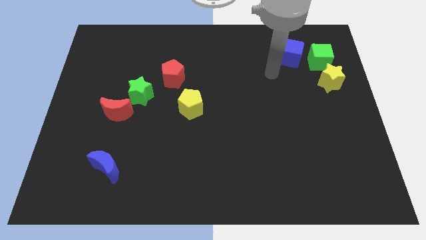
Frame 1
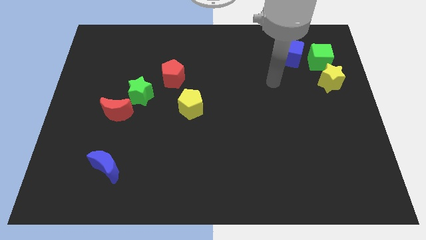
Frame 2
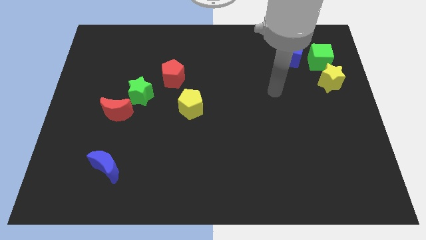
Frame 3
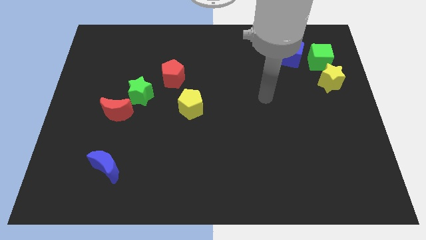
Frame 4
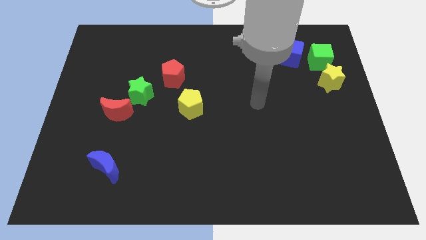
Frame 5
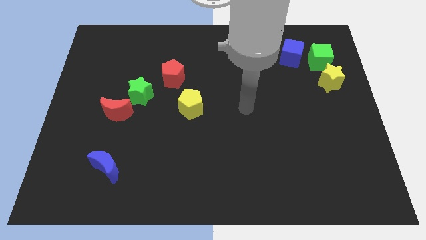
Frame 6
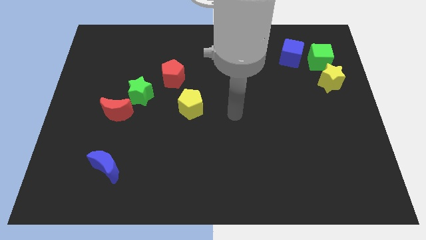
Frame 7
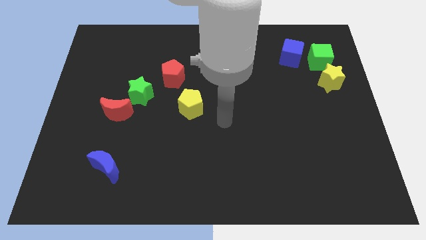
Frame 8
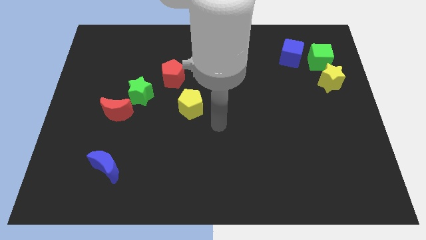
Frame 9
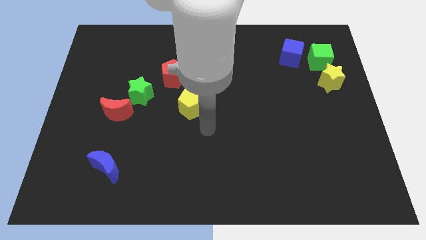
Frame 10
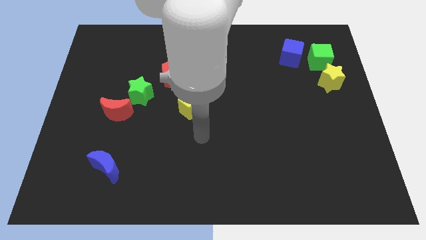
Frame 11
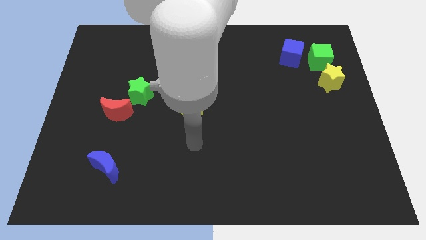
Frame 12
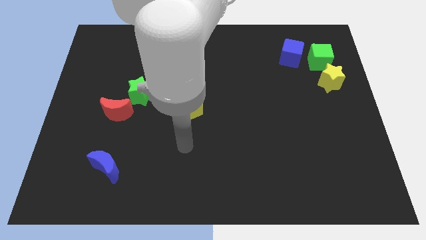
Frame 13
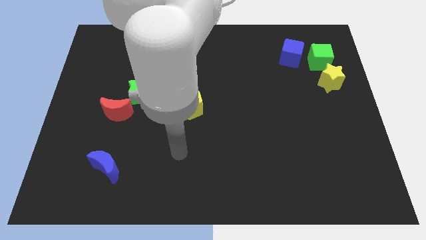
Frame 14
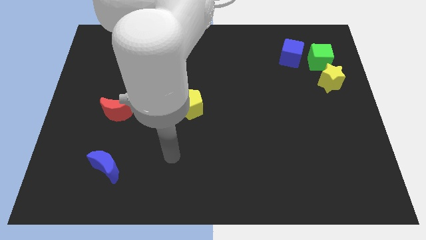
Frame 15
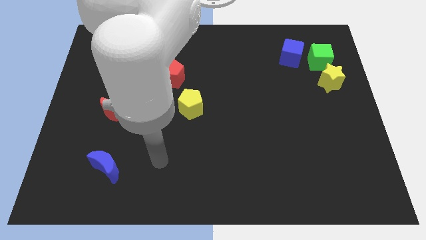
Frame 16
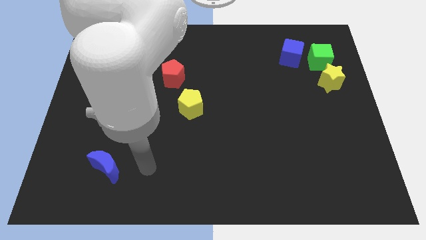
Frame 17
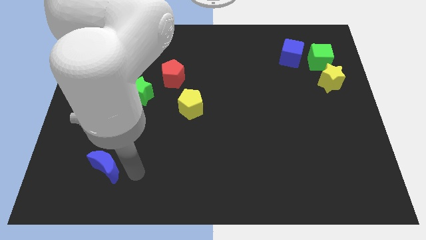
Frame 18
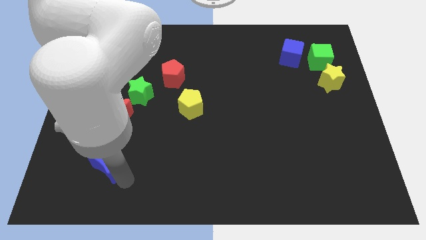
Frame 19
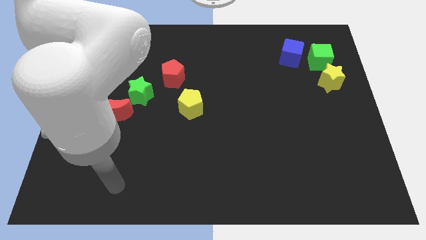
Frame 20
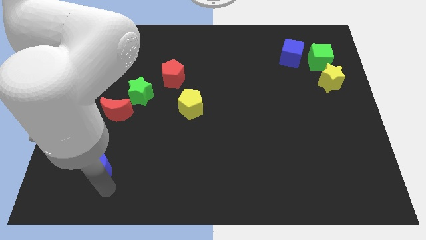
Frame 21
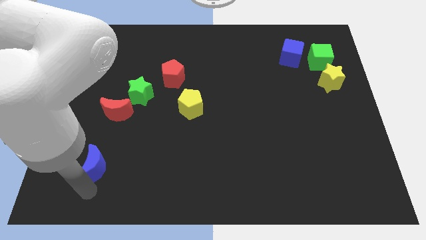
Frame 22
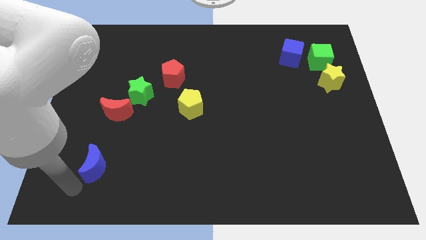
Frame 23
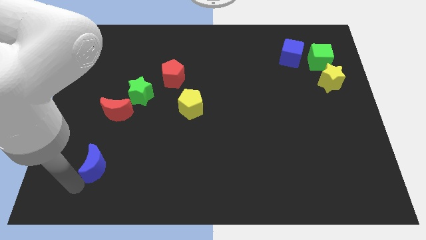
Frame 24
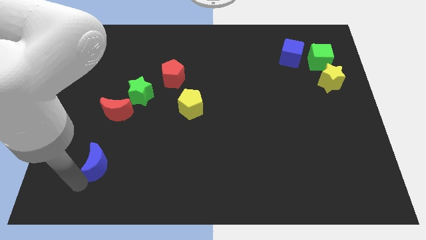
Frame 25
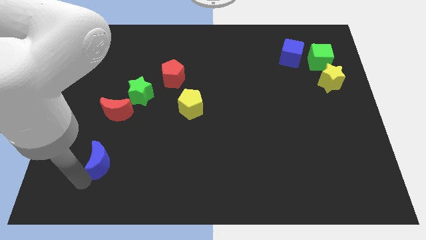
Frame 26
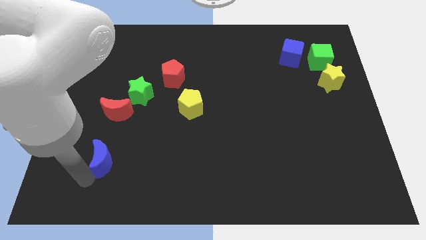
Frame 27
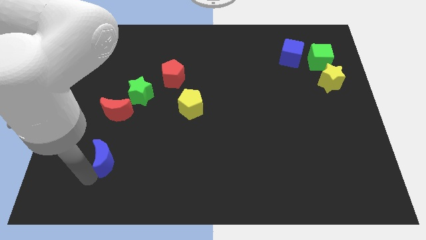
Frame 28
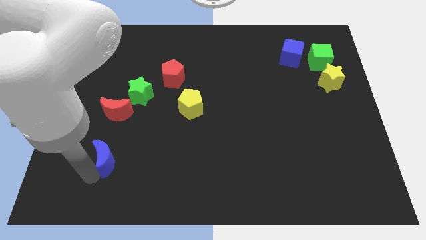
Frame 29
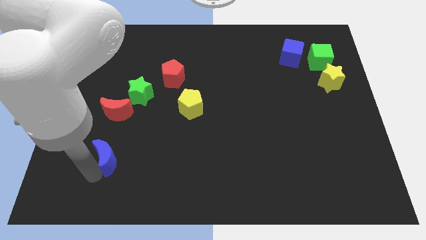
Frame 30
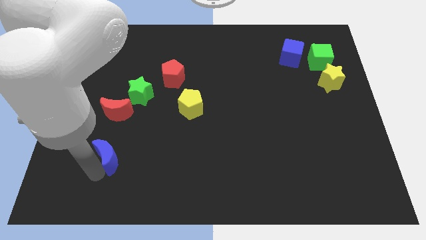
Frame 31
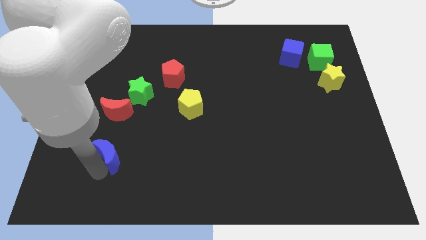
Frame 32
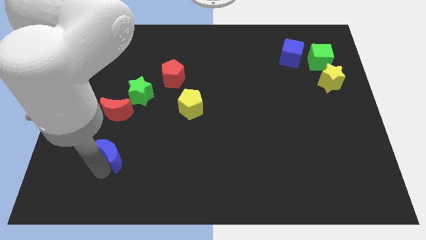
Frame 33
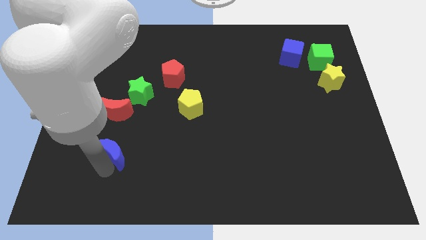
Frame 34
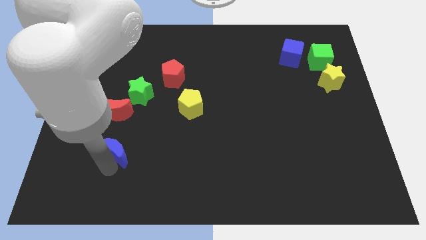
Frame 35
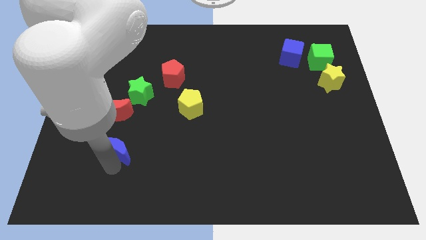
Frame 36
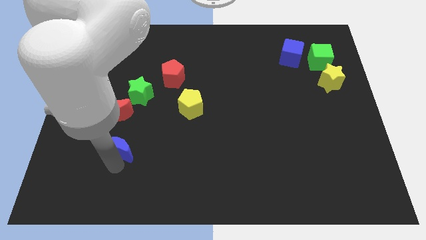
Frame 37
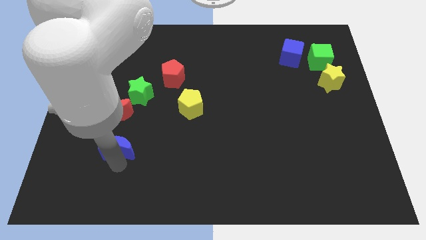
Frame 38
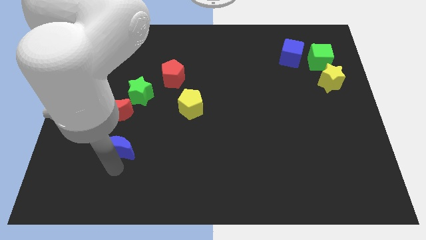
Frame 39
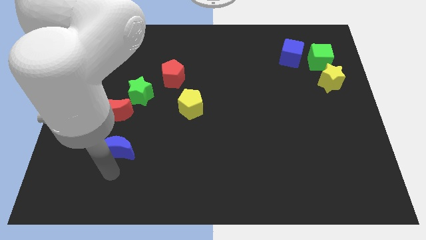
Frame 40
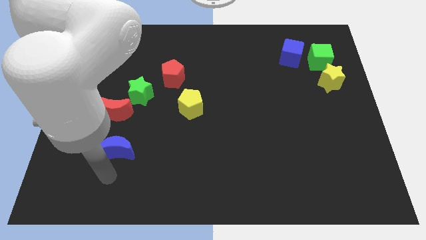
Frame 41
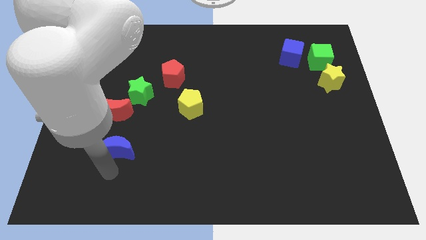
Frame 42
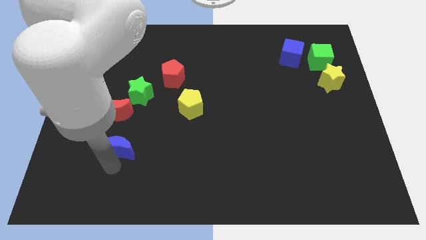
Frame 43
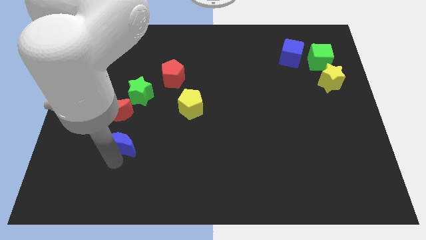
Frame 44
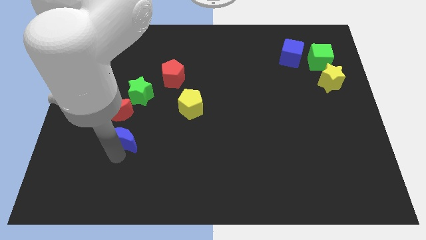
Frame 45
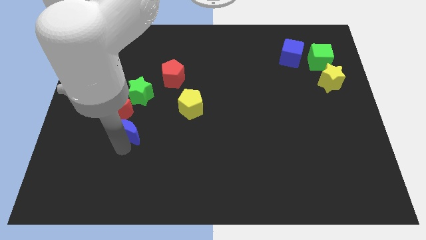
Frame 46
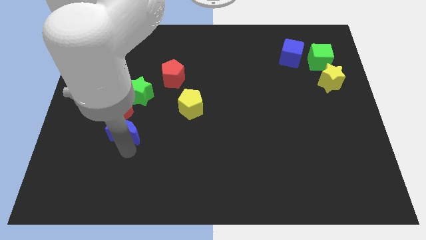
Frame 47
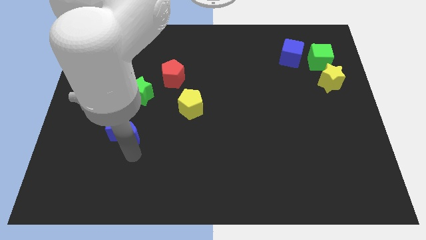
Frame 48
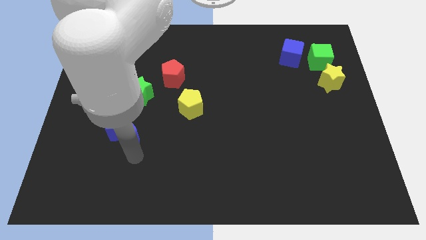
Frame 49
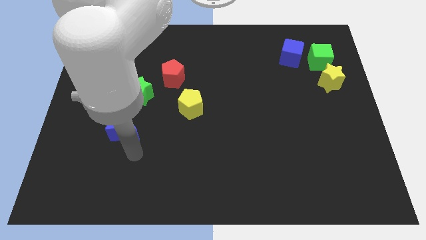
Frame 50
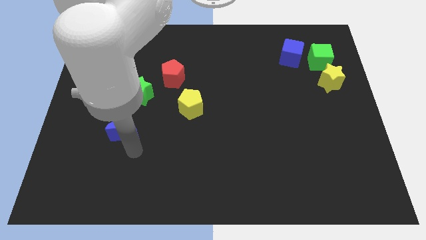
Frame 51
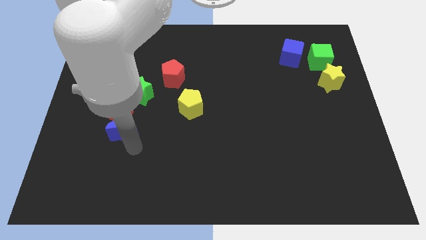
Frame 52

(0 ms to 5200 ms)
slide the blue moon towards the red moon
